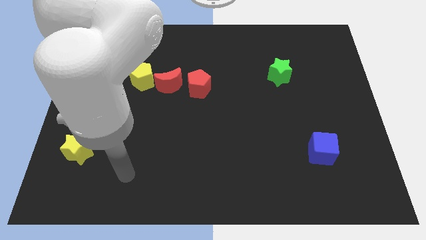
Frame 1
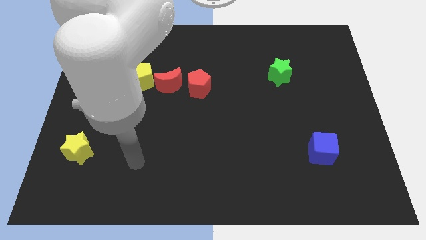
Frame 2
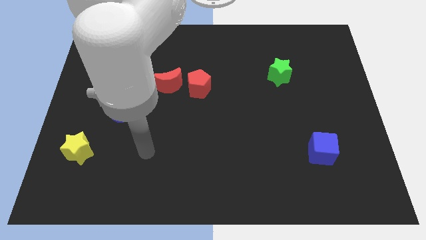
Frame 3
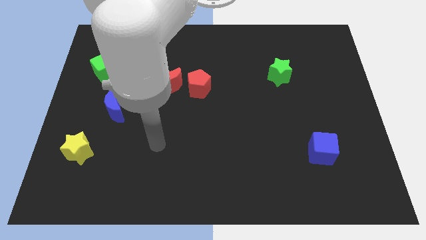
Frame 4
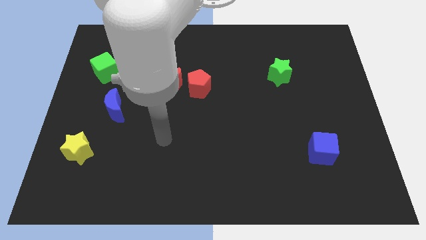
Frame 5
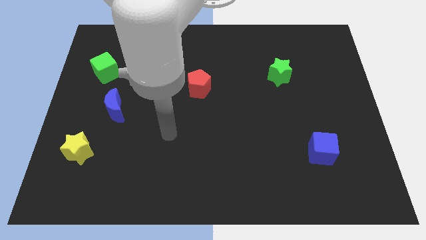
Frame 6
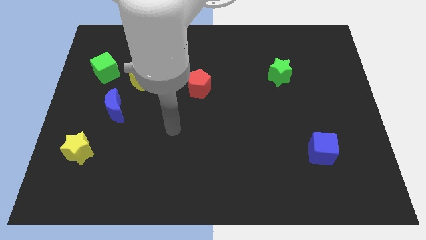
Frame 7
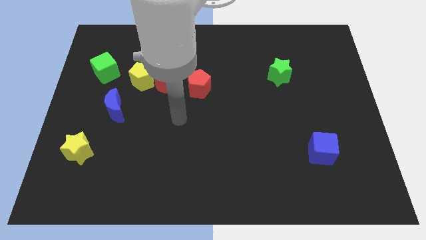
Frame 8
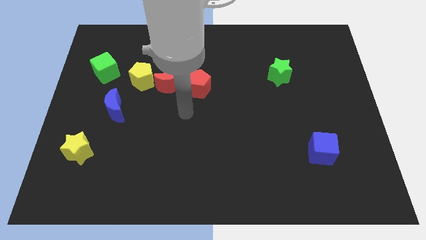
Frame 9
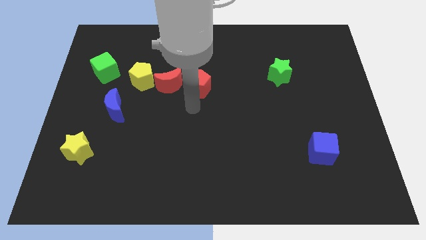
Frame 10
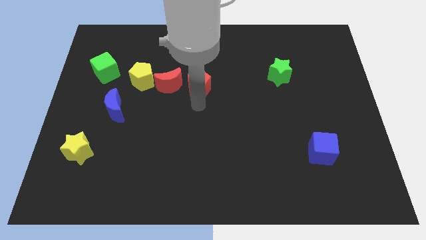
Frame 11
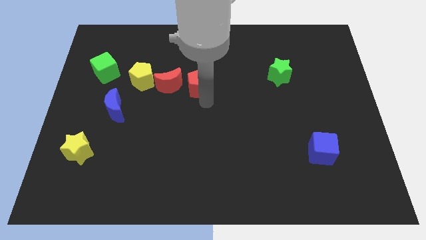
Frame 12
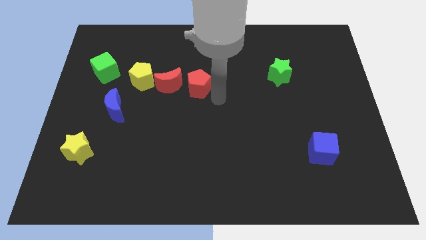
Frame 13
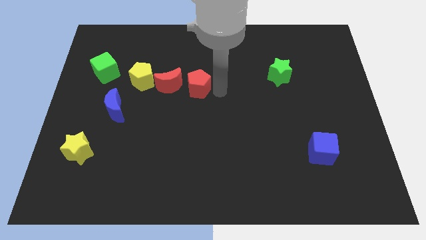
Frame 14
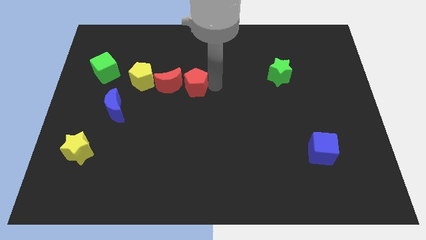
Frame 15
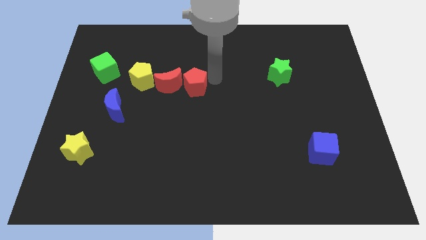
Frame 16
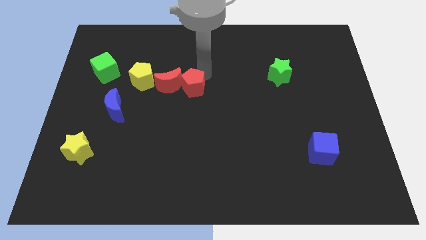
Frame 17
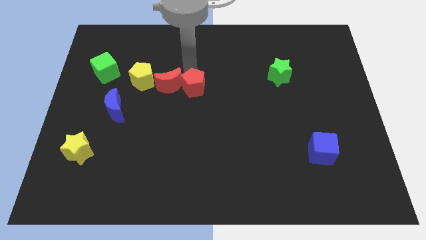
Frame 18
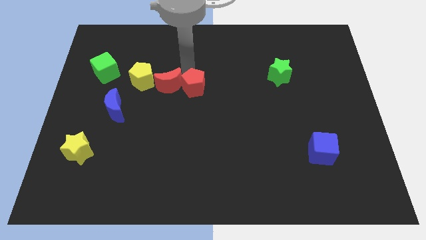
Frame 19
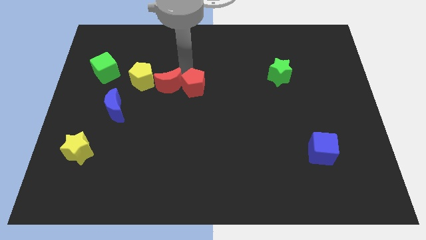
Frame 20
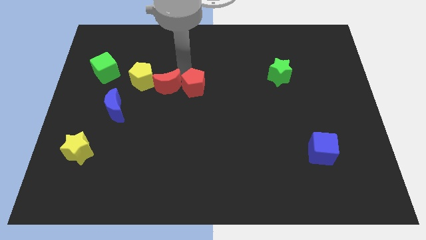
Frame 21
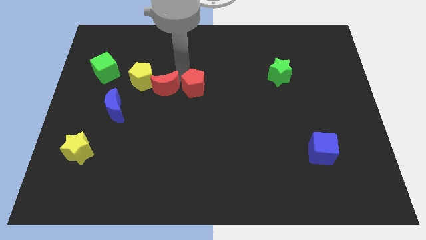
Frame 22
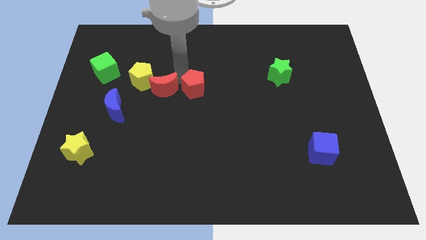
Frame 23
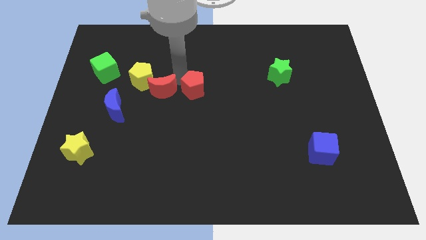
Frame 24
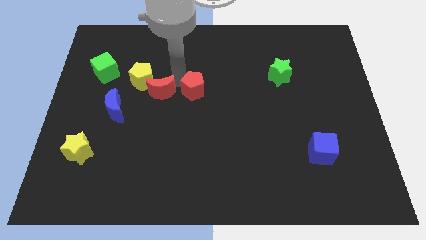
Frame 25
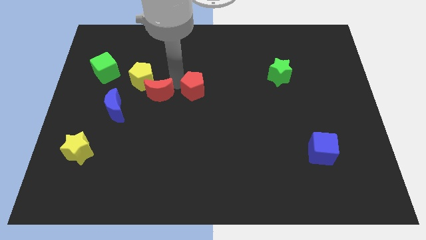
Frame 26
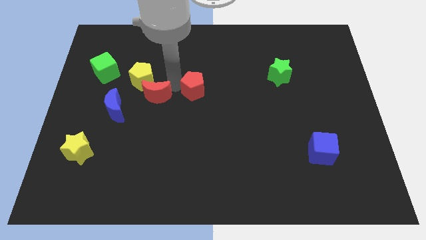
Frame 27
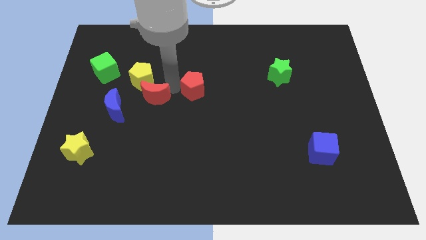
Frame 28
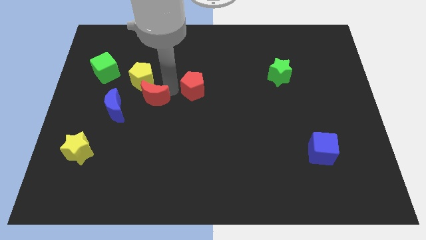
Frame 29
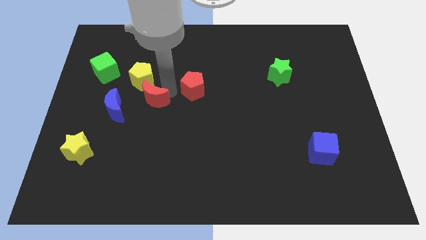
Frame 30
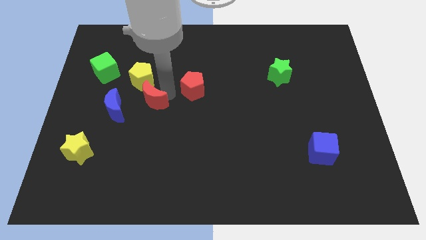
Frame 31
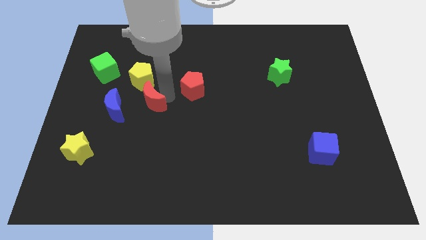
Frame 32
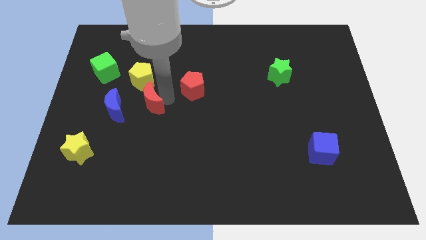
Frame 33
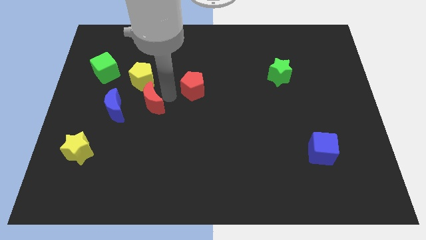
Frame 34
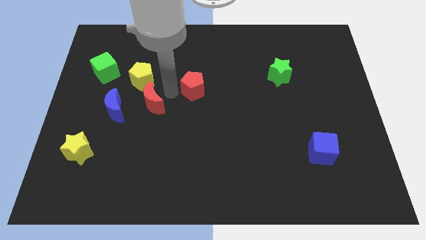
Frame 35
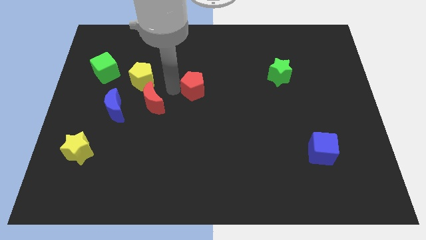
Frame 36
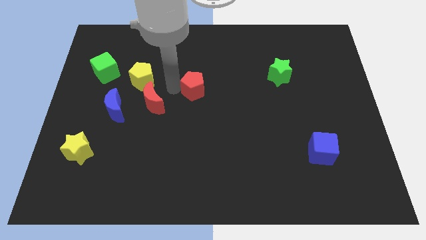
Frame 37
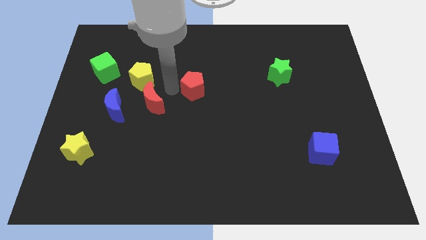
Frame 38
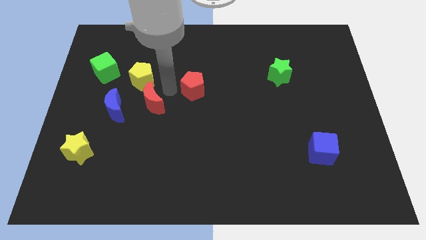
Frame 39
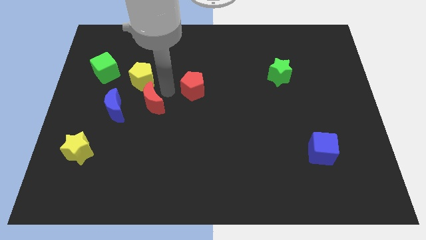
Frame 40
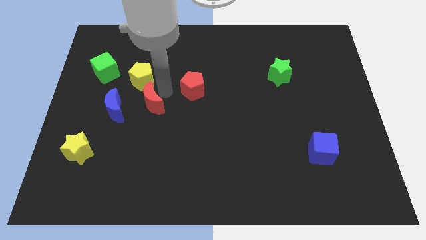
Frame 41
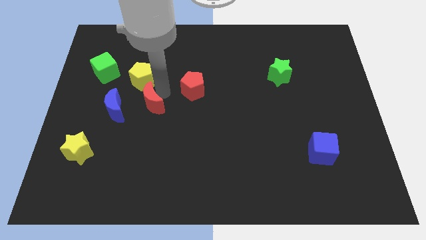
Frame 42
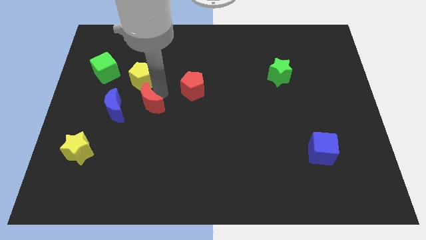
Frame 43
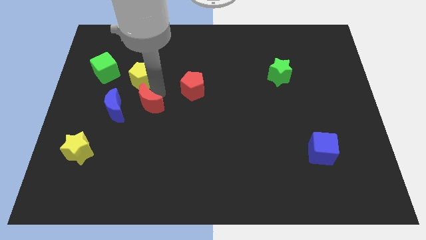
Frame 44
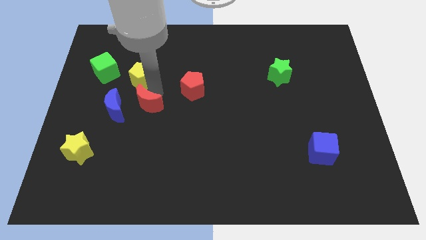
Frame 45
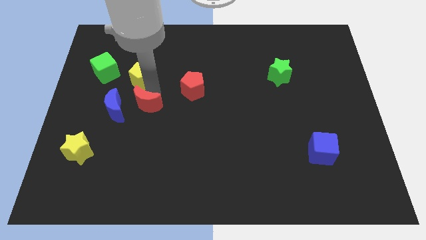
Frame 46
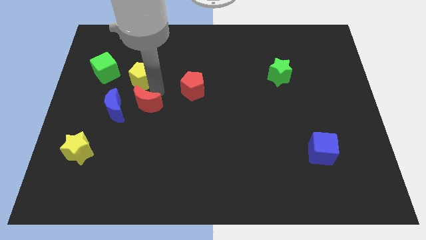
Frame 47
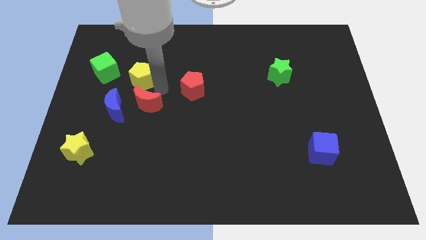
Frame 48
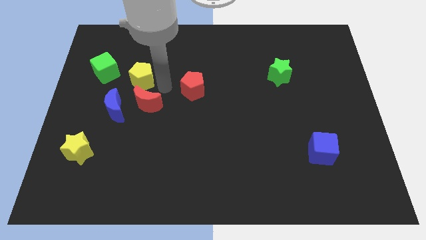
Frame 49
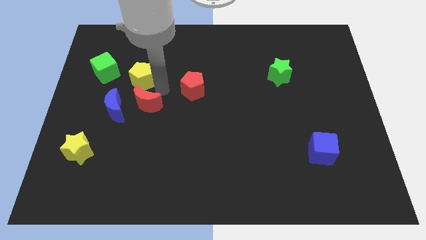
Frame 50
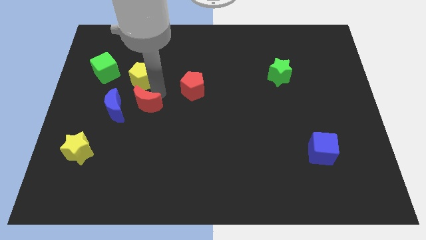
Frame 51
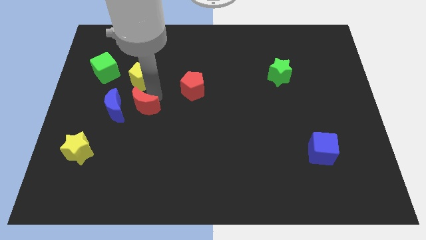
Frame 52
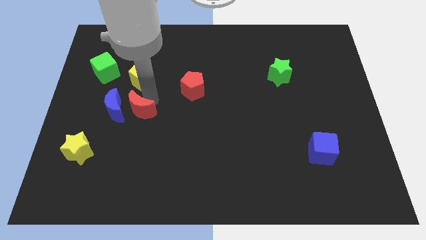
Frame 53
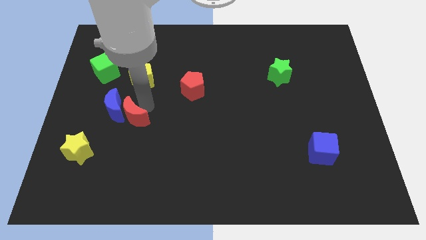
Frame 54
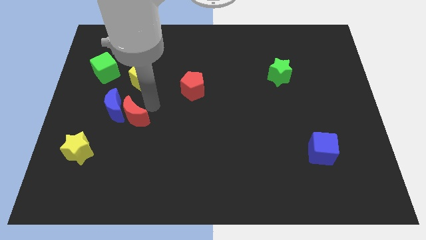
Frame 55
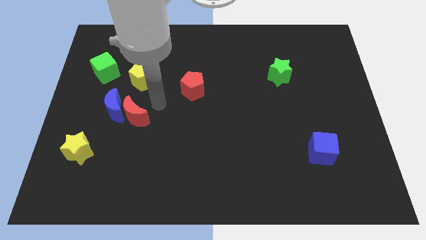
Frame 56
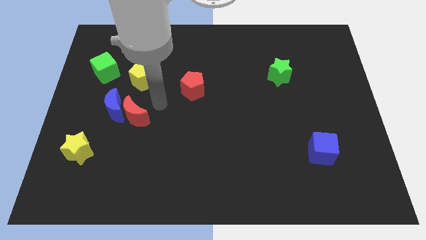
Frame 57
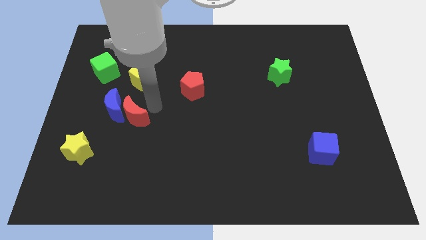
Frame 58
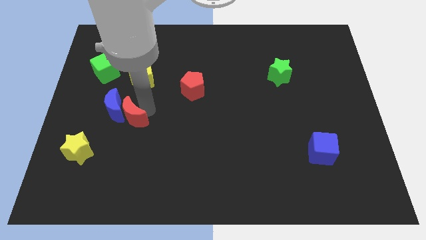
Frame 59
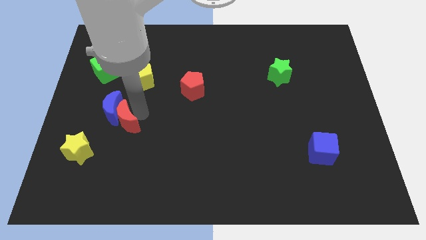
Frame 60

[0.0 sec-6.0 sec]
move the red moon diagonally up and to the right of the yellow star
